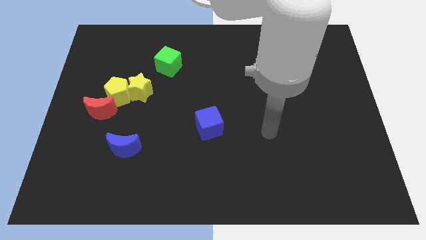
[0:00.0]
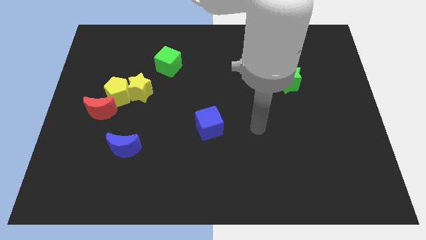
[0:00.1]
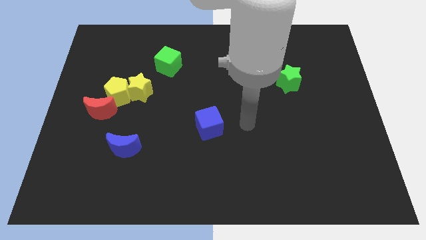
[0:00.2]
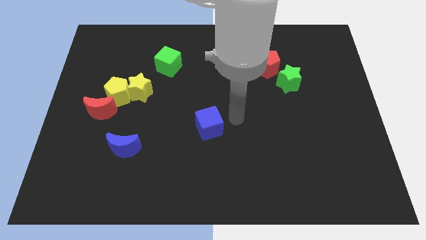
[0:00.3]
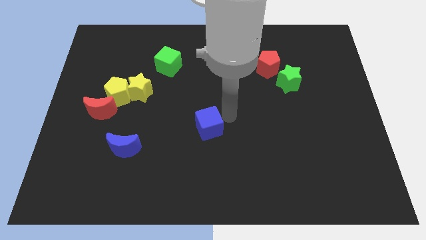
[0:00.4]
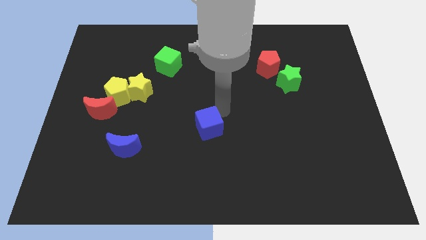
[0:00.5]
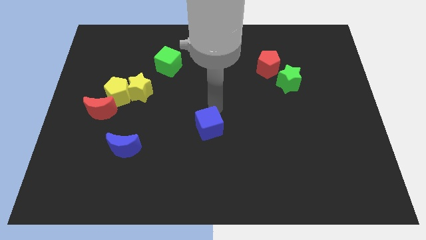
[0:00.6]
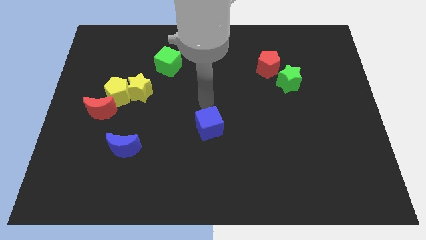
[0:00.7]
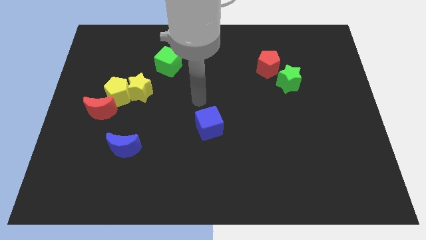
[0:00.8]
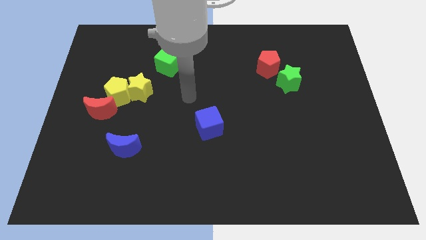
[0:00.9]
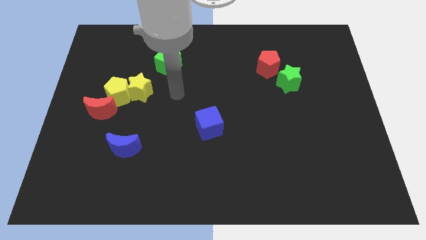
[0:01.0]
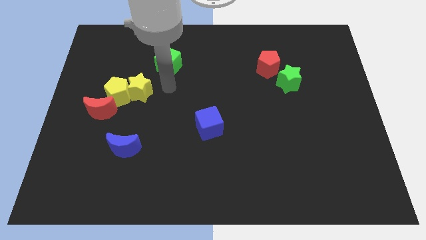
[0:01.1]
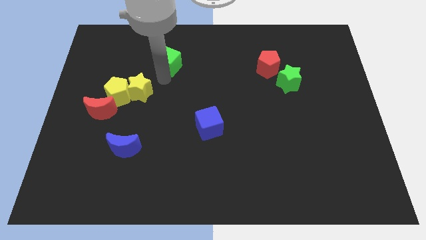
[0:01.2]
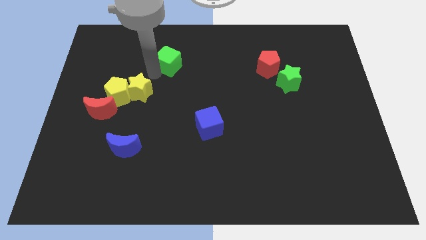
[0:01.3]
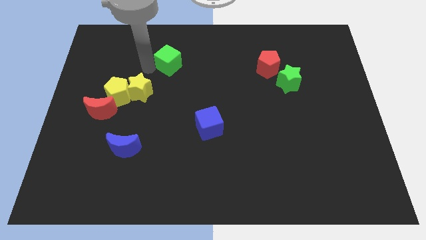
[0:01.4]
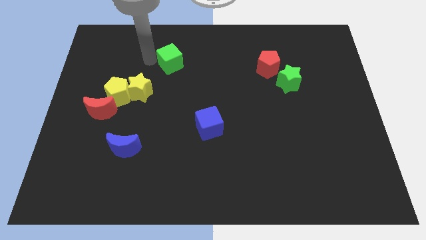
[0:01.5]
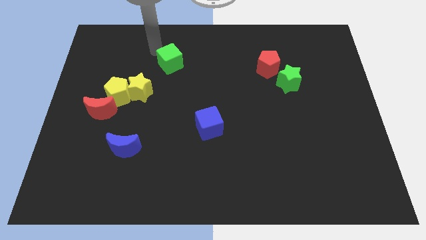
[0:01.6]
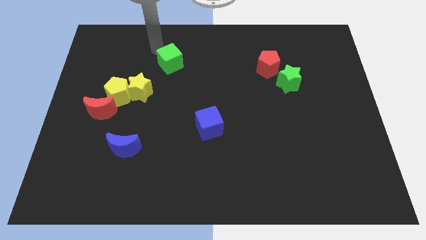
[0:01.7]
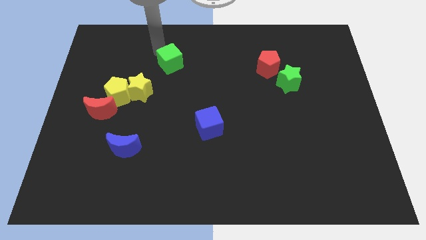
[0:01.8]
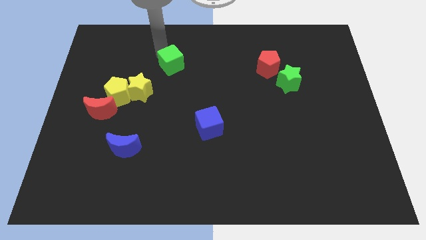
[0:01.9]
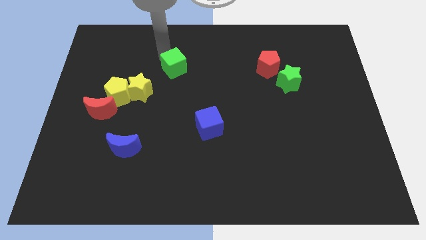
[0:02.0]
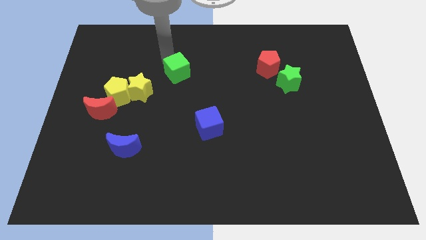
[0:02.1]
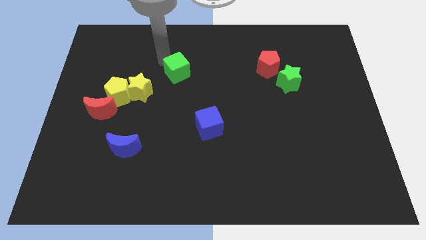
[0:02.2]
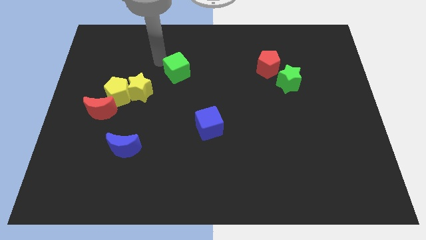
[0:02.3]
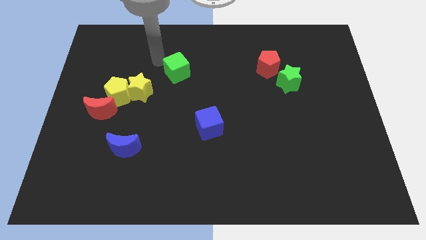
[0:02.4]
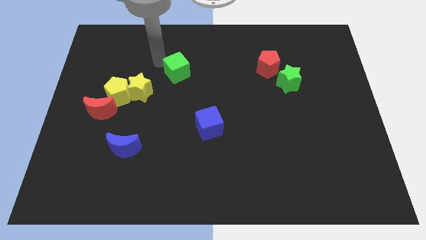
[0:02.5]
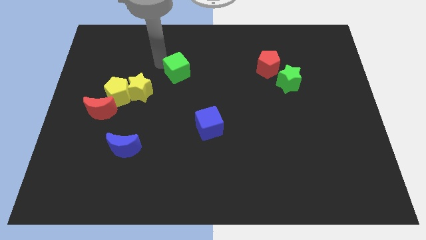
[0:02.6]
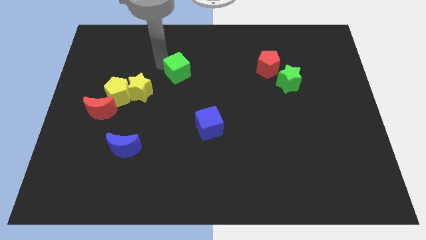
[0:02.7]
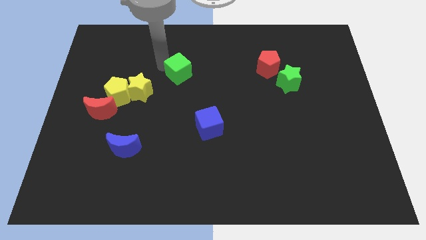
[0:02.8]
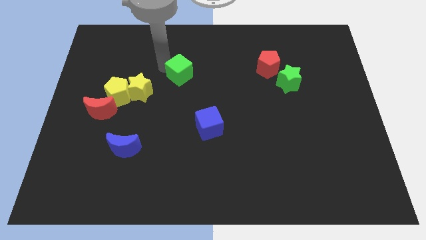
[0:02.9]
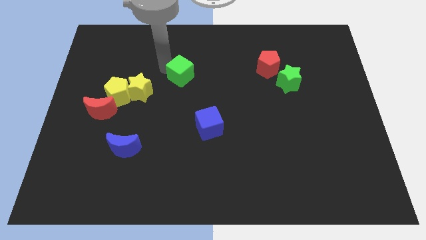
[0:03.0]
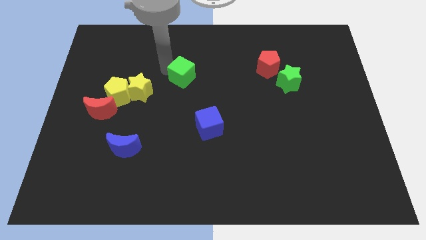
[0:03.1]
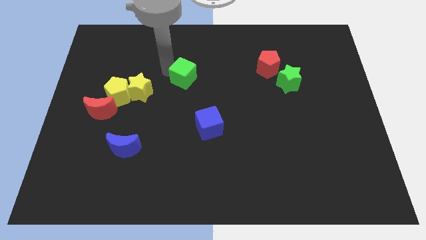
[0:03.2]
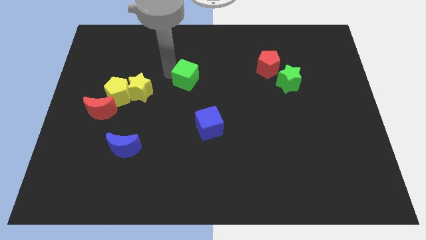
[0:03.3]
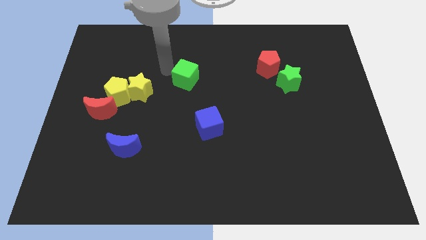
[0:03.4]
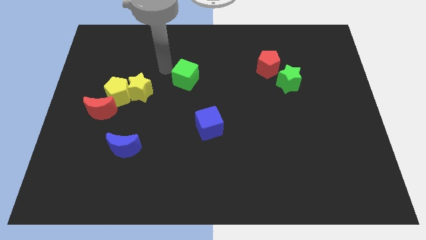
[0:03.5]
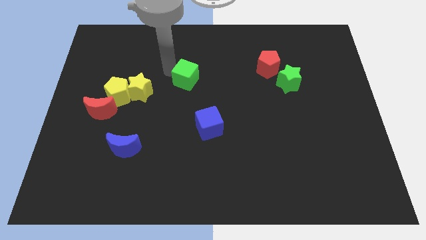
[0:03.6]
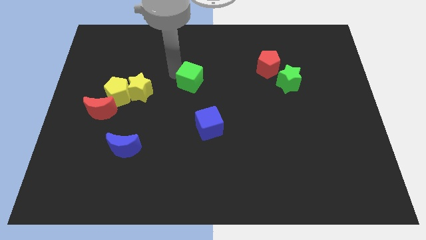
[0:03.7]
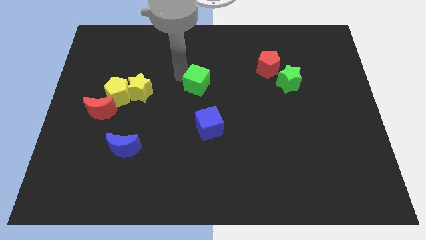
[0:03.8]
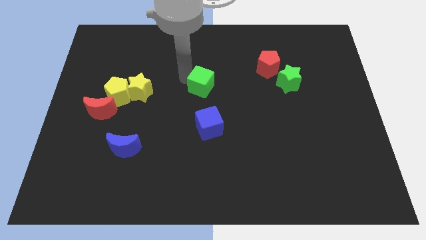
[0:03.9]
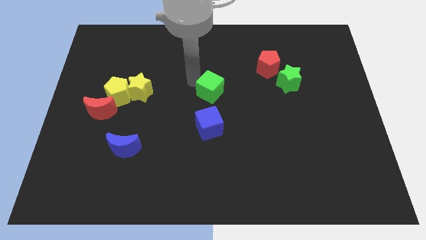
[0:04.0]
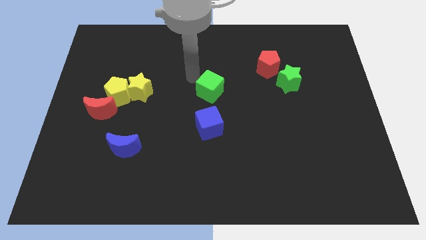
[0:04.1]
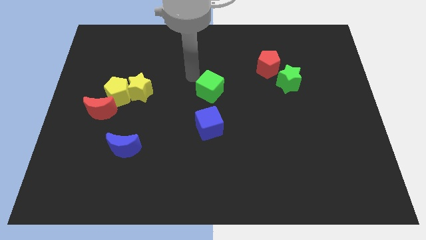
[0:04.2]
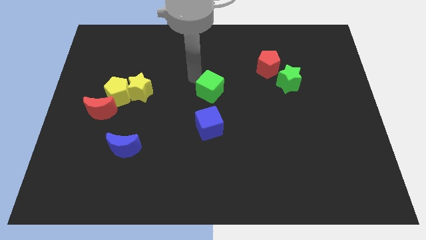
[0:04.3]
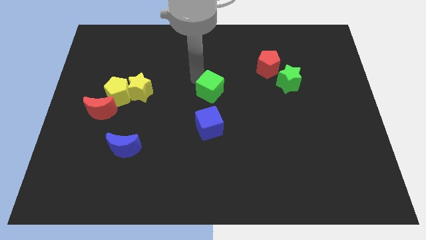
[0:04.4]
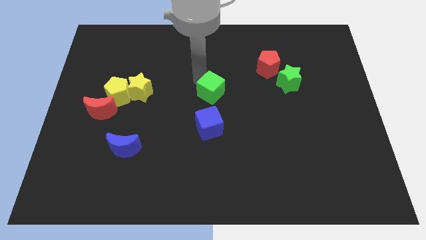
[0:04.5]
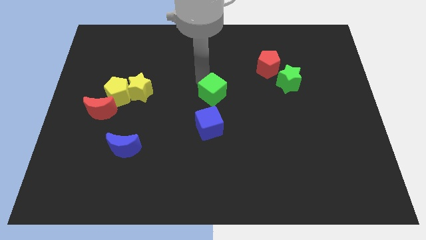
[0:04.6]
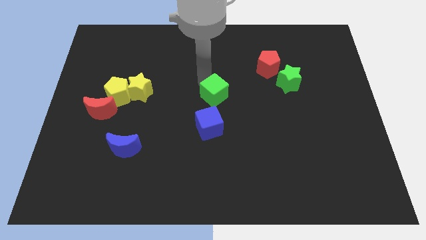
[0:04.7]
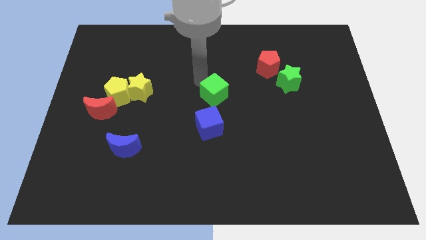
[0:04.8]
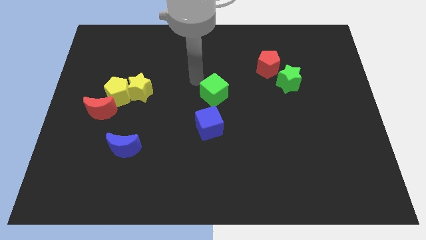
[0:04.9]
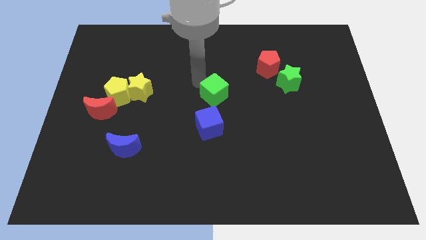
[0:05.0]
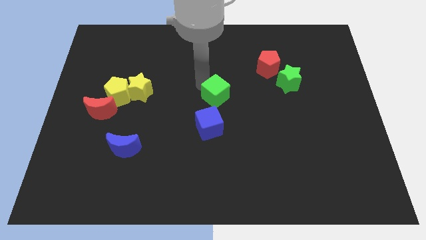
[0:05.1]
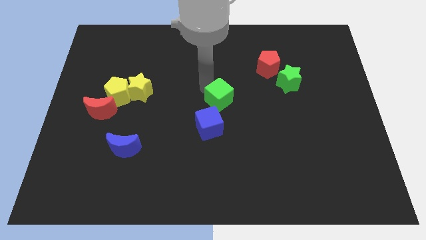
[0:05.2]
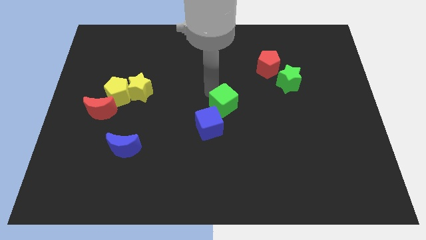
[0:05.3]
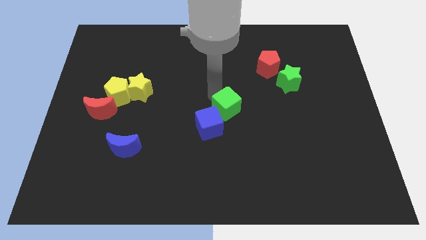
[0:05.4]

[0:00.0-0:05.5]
push the green cube down and right diagonally

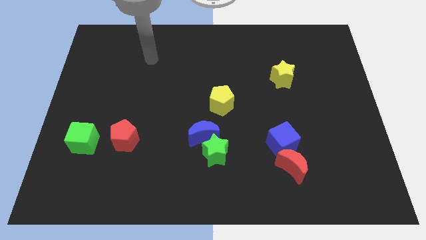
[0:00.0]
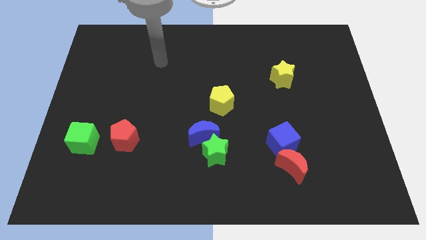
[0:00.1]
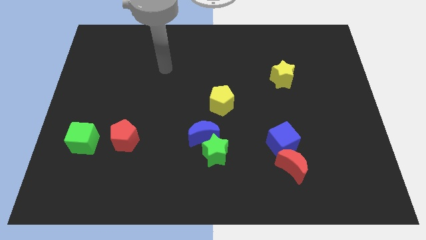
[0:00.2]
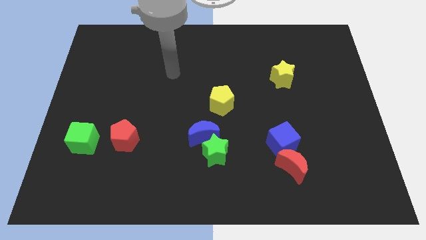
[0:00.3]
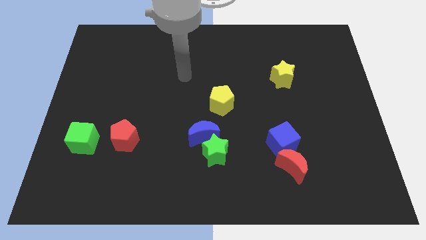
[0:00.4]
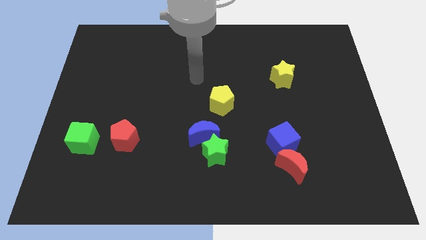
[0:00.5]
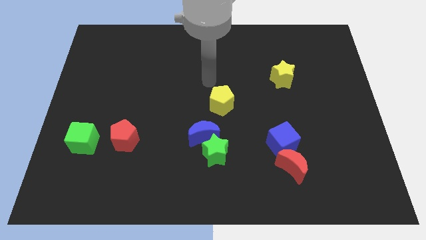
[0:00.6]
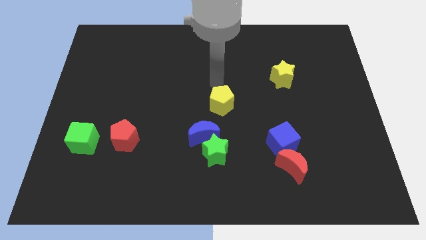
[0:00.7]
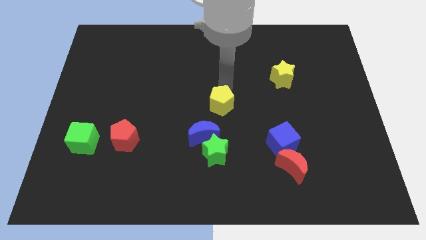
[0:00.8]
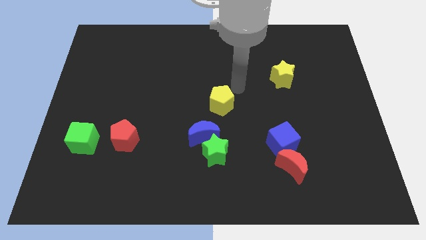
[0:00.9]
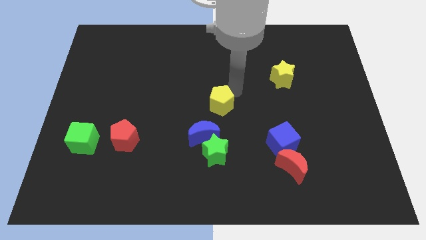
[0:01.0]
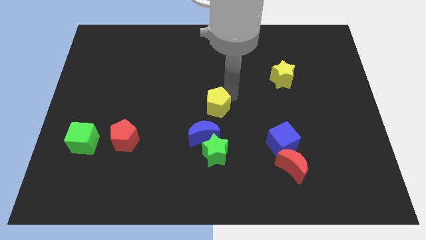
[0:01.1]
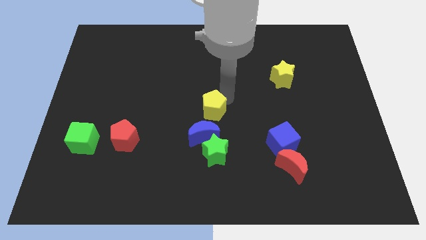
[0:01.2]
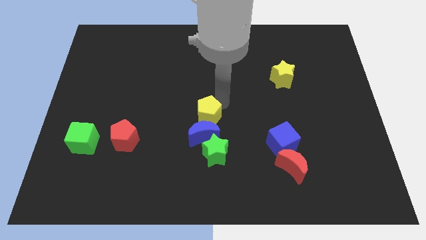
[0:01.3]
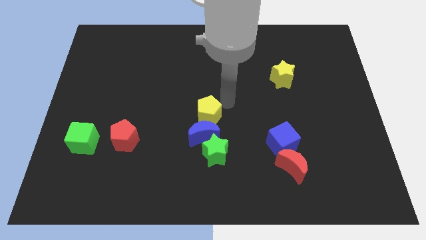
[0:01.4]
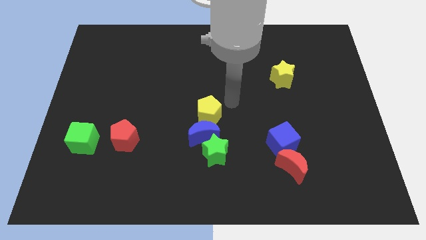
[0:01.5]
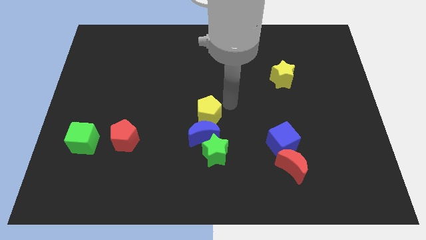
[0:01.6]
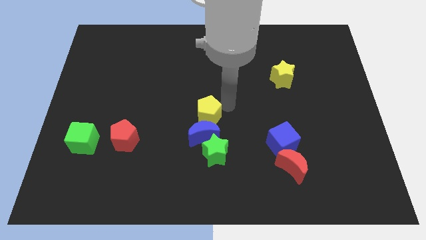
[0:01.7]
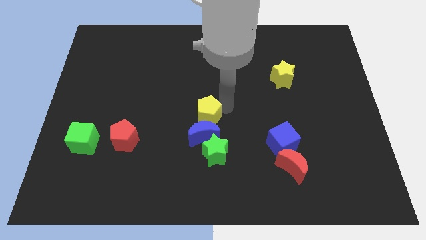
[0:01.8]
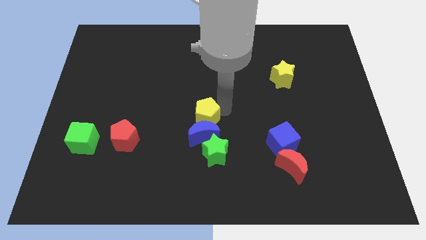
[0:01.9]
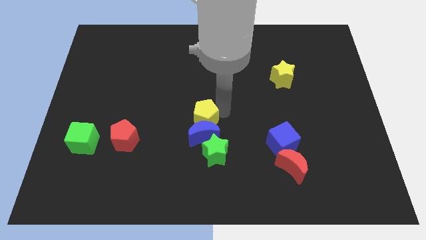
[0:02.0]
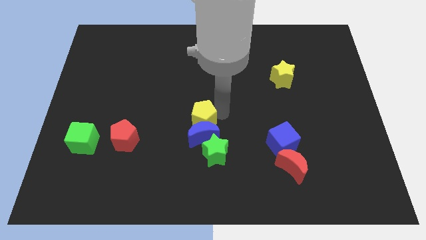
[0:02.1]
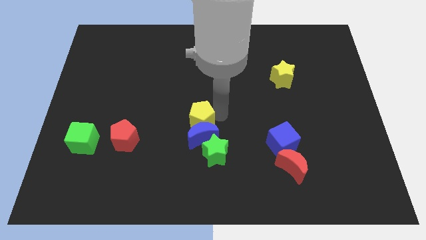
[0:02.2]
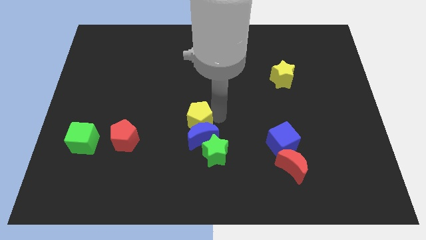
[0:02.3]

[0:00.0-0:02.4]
move the yellow pentagon diagonally downwards and to the left a bit
